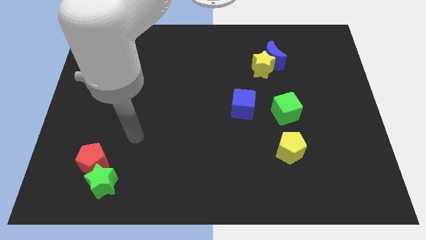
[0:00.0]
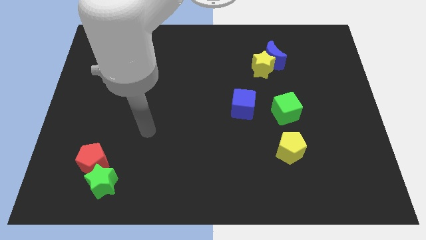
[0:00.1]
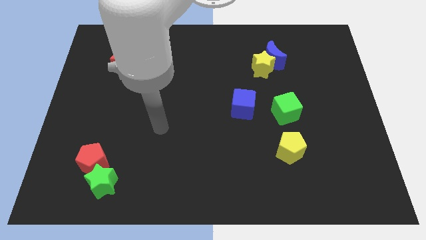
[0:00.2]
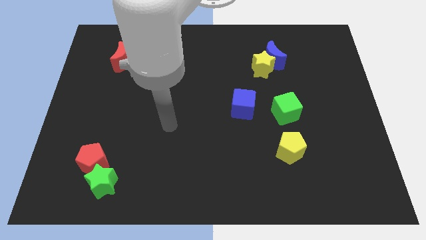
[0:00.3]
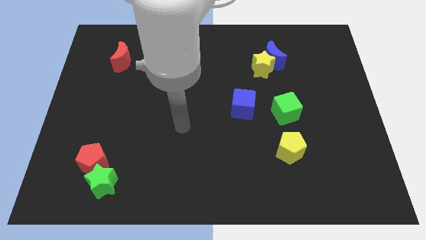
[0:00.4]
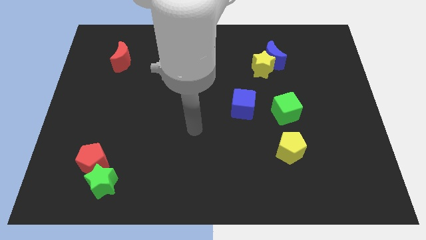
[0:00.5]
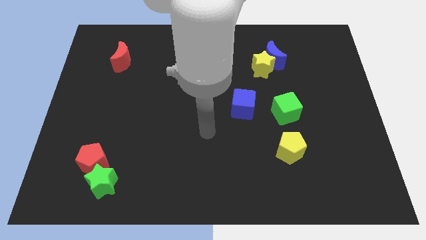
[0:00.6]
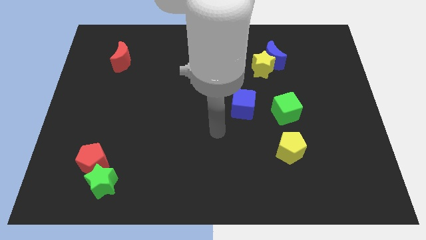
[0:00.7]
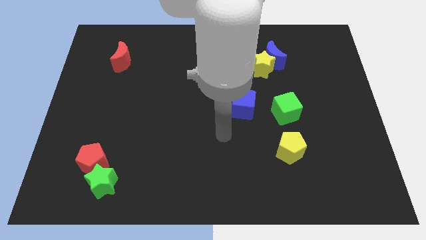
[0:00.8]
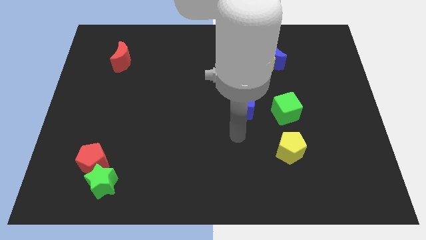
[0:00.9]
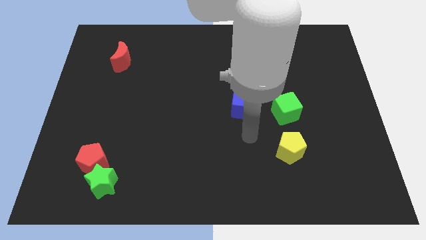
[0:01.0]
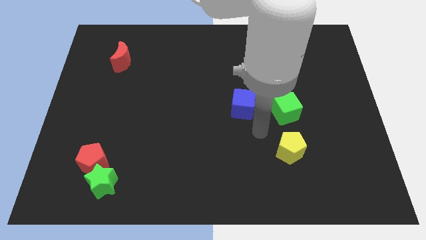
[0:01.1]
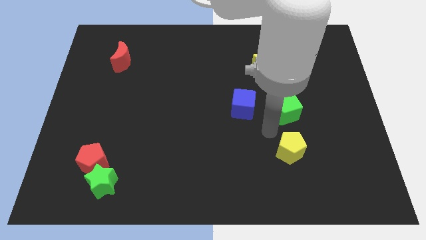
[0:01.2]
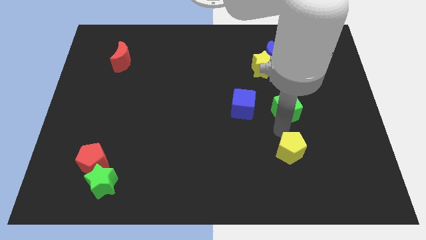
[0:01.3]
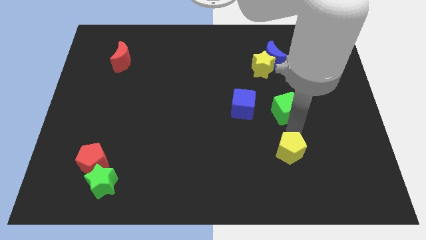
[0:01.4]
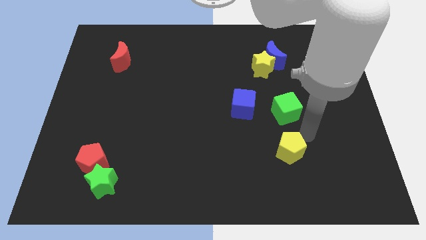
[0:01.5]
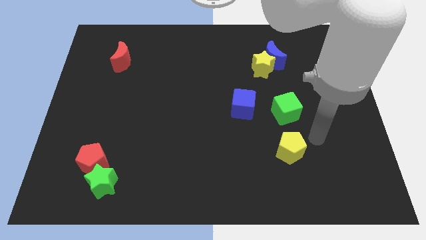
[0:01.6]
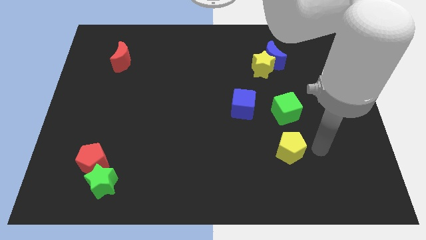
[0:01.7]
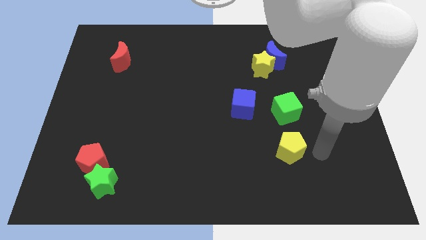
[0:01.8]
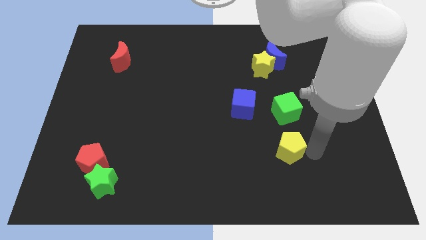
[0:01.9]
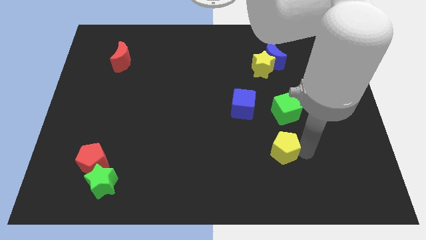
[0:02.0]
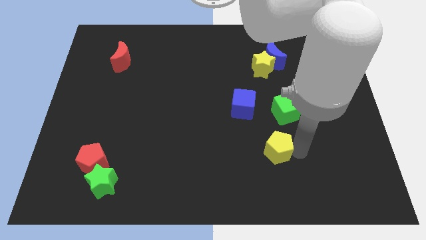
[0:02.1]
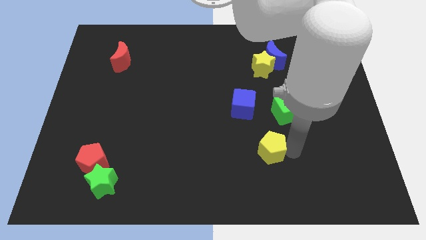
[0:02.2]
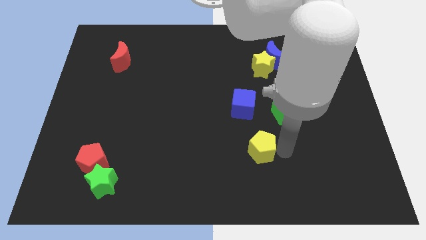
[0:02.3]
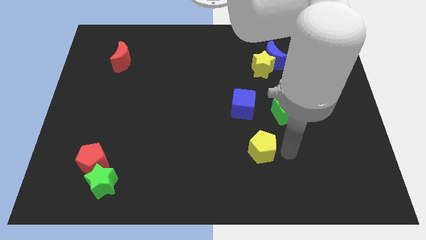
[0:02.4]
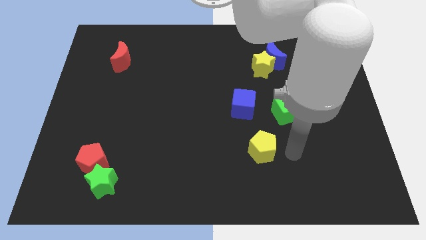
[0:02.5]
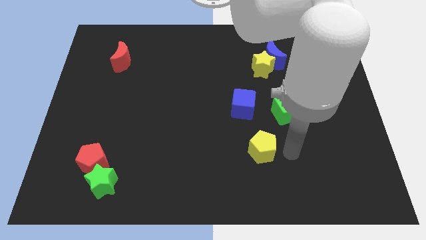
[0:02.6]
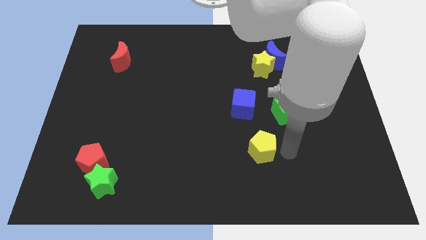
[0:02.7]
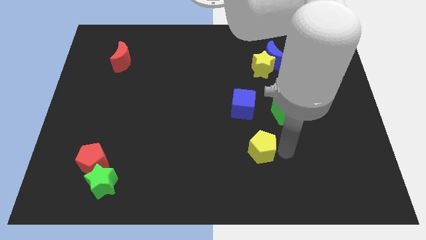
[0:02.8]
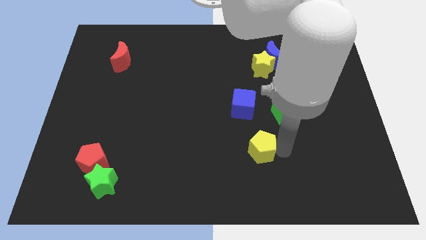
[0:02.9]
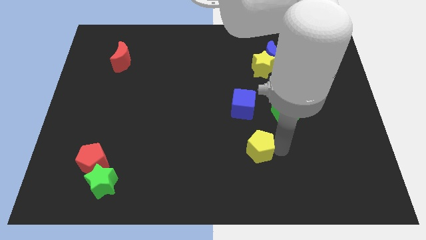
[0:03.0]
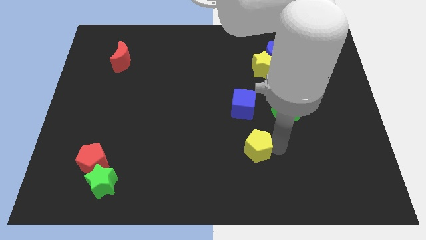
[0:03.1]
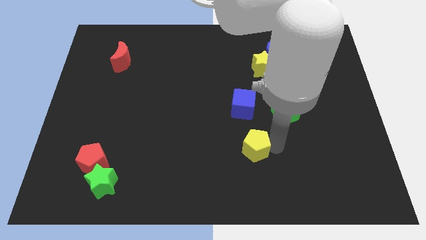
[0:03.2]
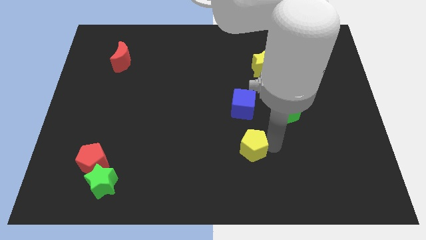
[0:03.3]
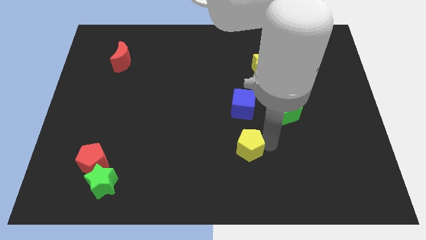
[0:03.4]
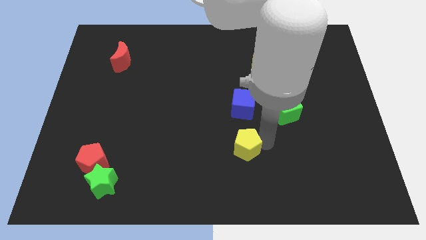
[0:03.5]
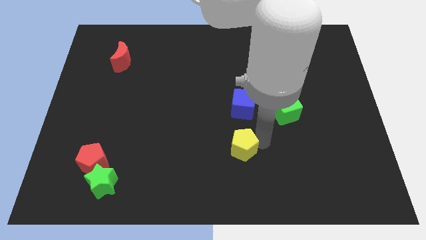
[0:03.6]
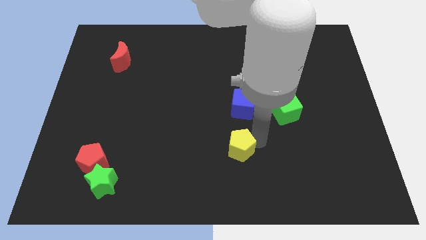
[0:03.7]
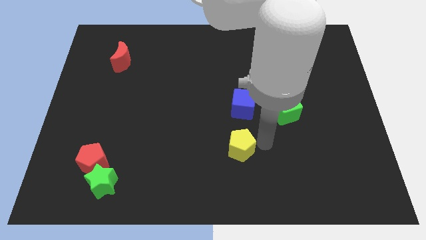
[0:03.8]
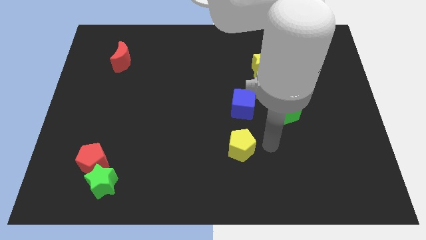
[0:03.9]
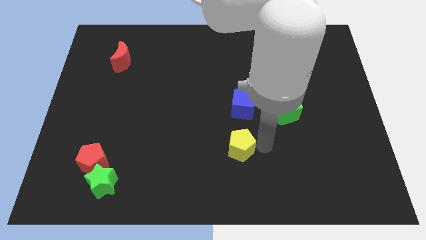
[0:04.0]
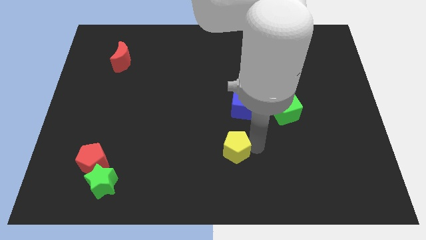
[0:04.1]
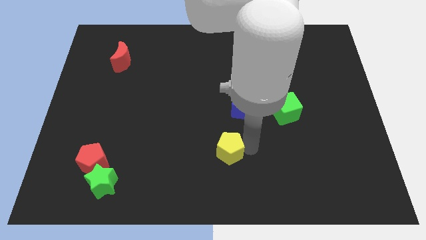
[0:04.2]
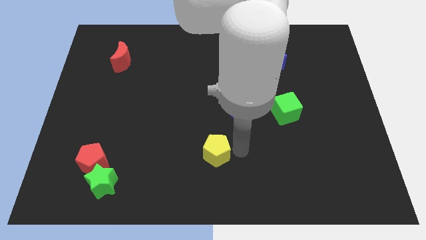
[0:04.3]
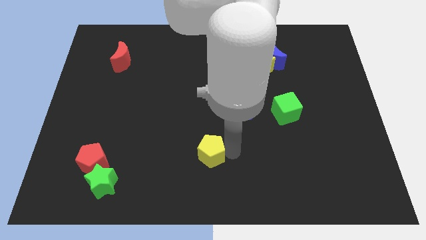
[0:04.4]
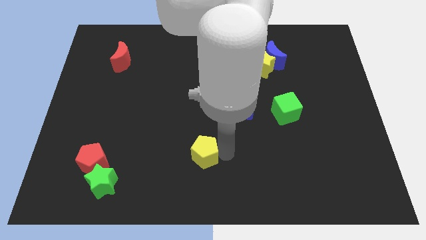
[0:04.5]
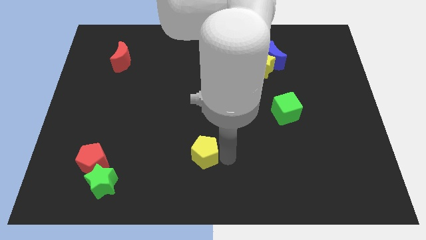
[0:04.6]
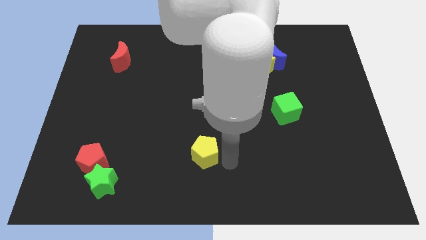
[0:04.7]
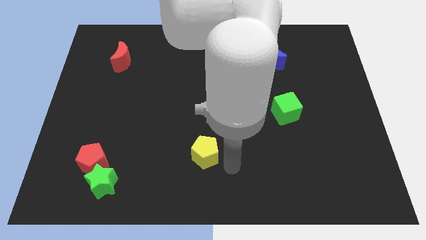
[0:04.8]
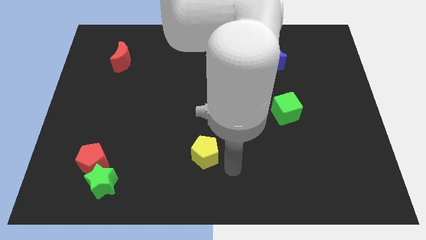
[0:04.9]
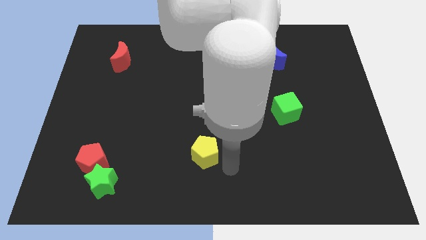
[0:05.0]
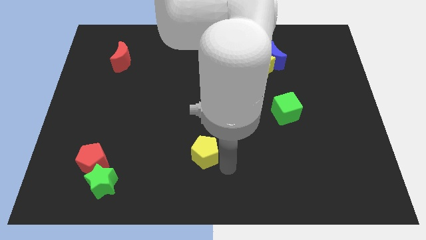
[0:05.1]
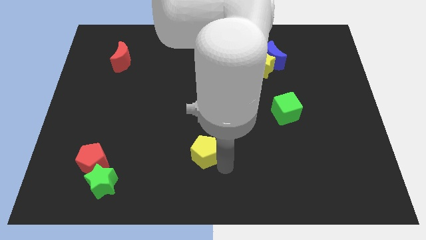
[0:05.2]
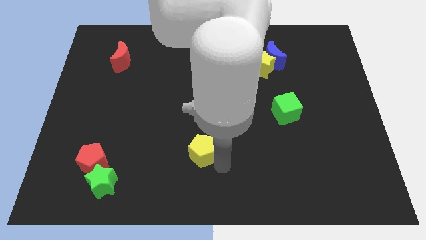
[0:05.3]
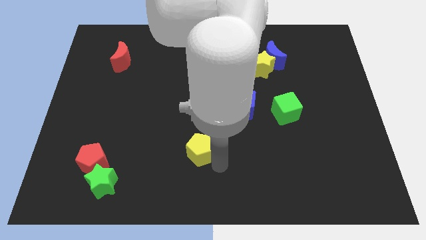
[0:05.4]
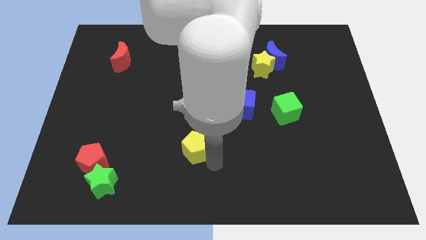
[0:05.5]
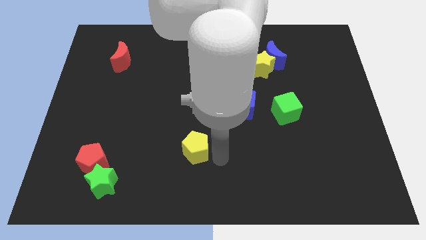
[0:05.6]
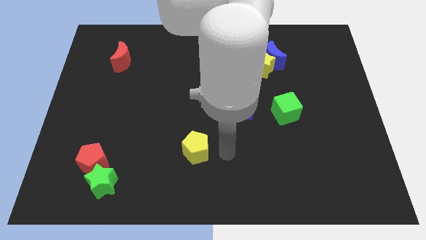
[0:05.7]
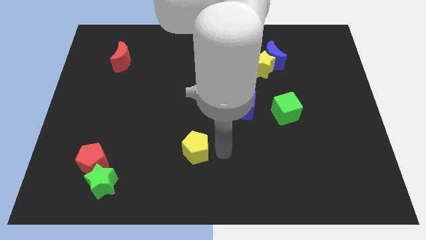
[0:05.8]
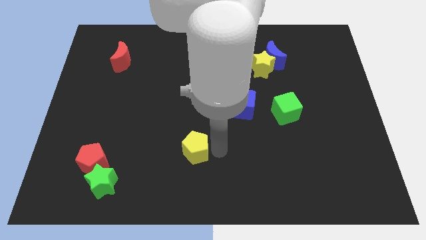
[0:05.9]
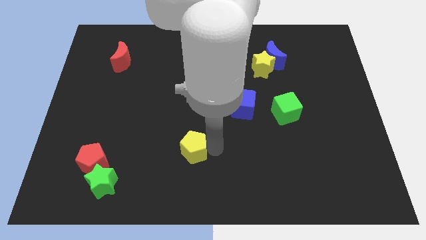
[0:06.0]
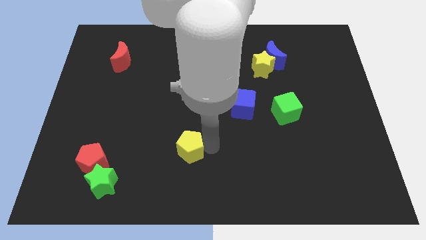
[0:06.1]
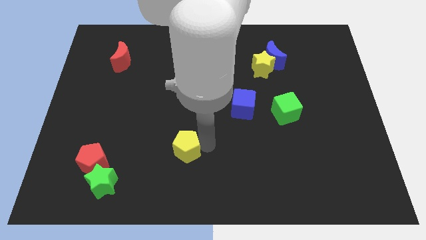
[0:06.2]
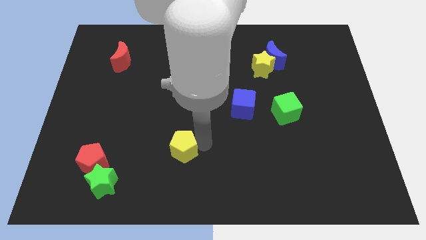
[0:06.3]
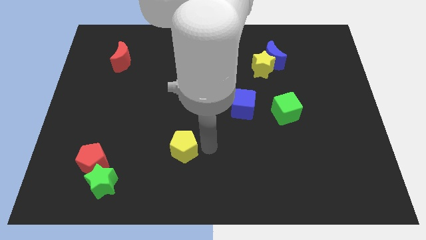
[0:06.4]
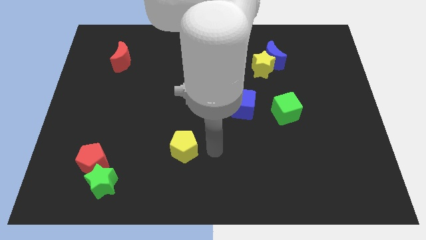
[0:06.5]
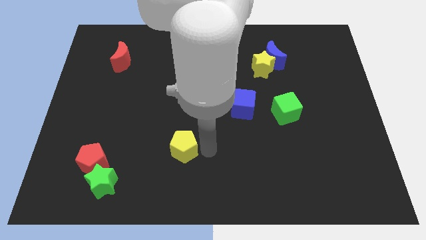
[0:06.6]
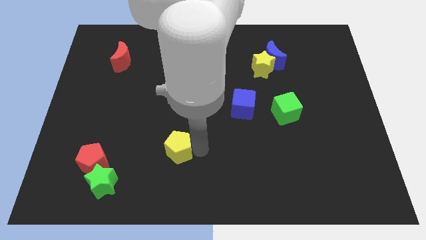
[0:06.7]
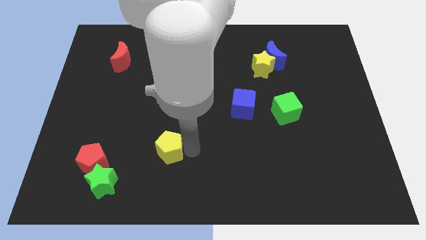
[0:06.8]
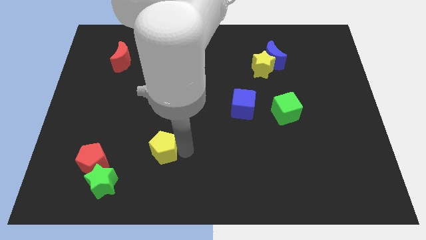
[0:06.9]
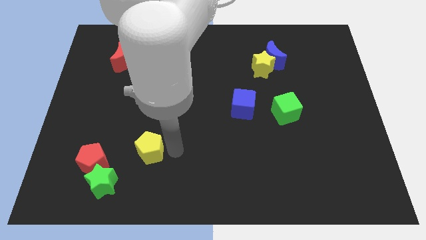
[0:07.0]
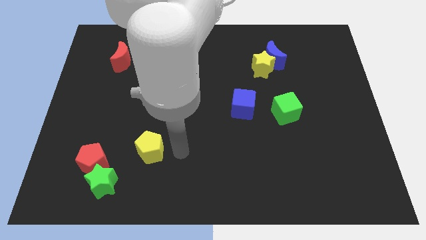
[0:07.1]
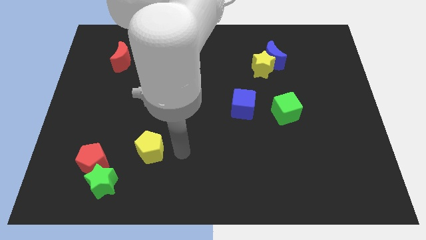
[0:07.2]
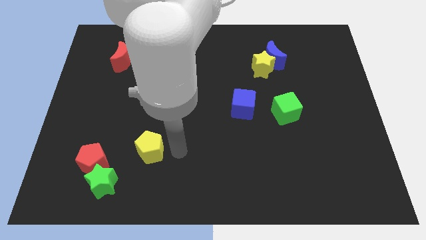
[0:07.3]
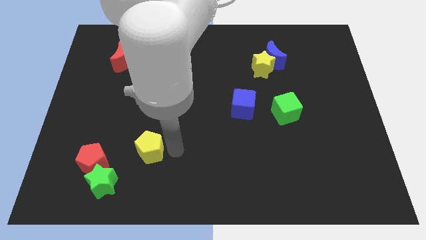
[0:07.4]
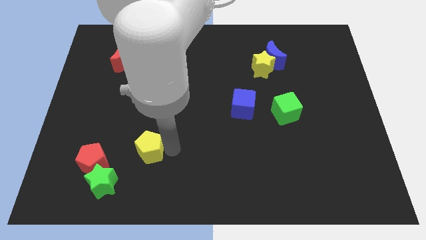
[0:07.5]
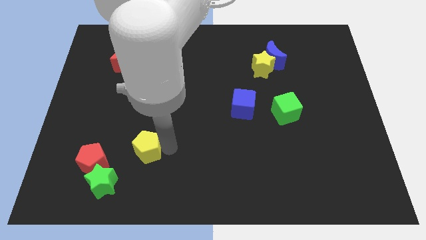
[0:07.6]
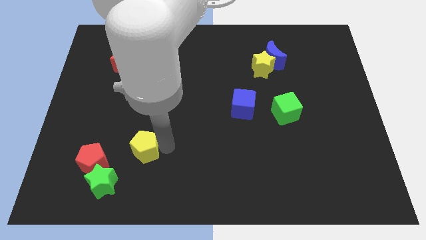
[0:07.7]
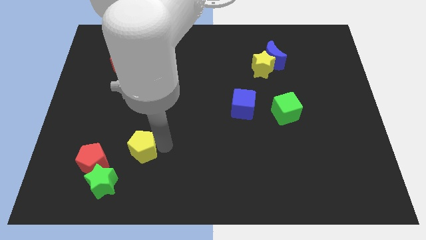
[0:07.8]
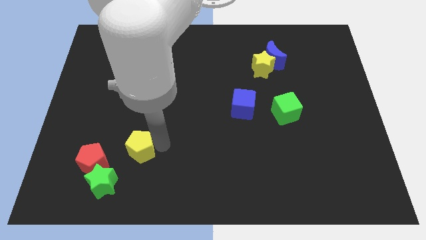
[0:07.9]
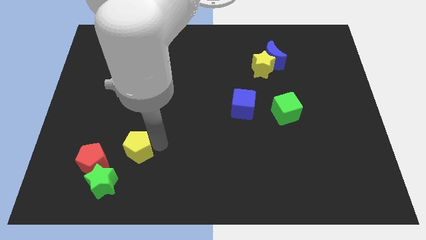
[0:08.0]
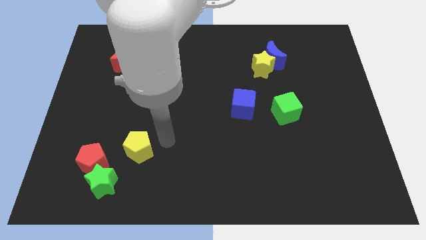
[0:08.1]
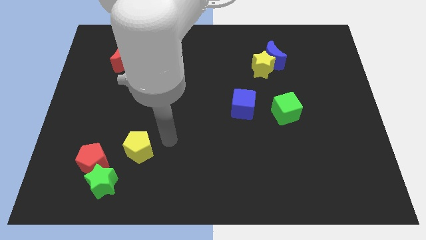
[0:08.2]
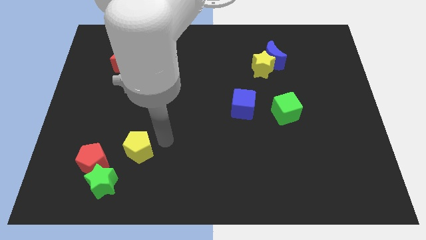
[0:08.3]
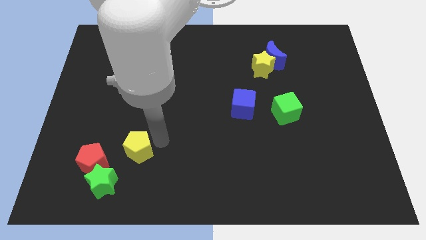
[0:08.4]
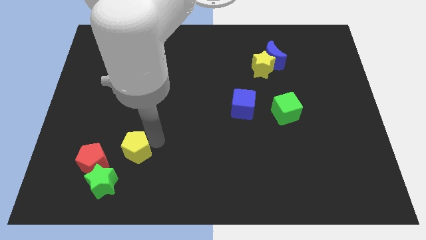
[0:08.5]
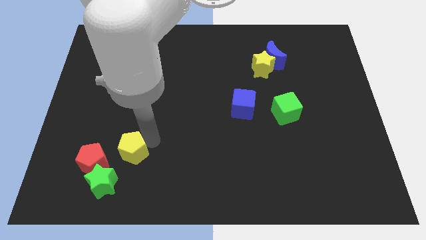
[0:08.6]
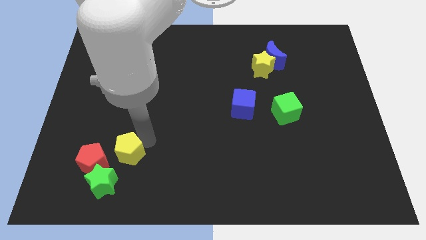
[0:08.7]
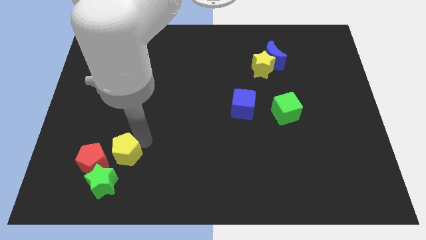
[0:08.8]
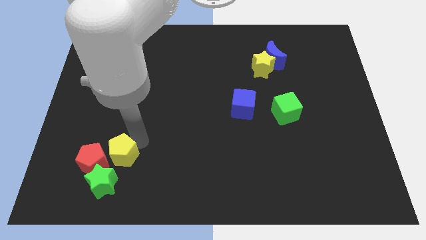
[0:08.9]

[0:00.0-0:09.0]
move the yellow pentagon next to the red pentagon
